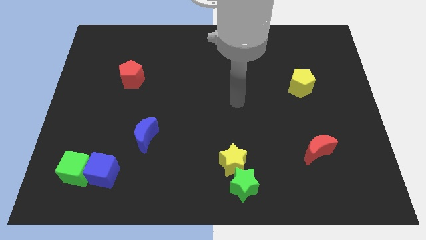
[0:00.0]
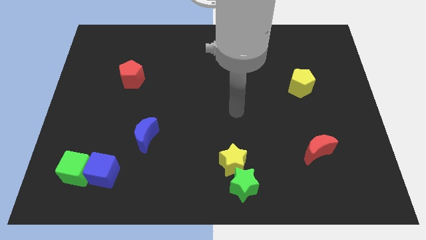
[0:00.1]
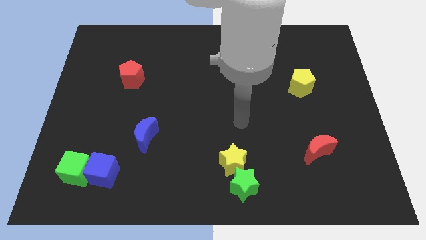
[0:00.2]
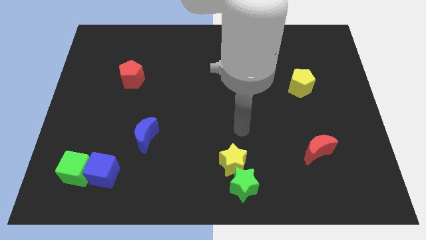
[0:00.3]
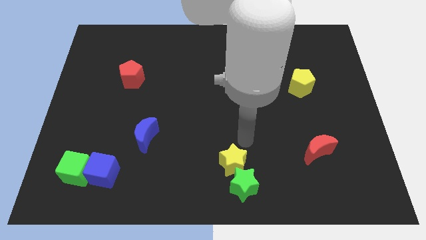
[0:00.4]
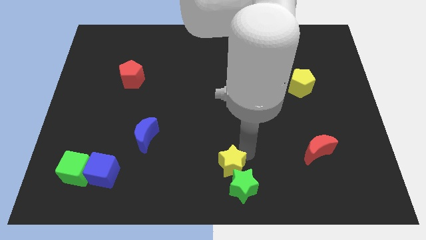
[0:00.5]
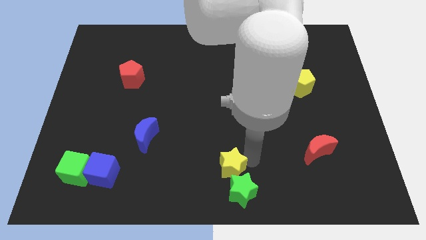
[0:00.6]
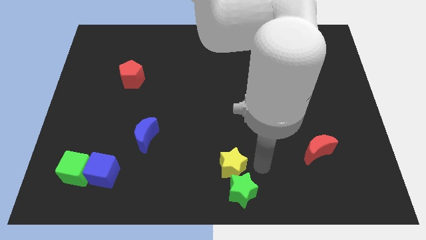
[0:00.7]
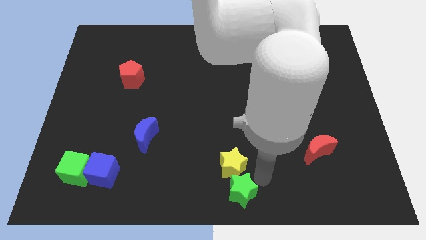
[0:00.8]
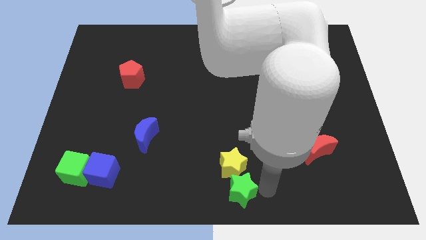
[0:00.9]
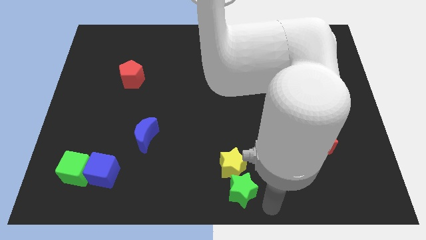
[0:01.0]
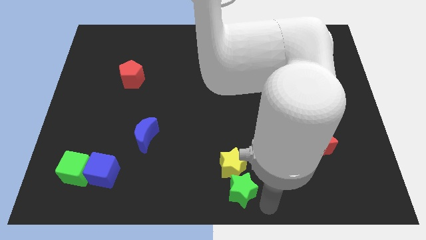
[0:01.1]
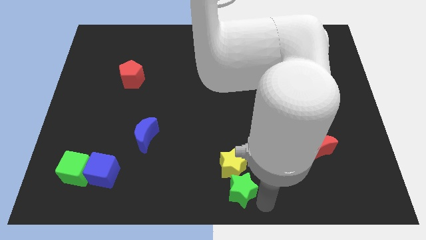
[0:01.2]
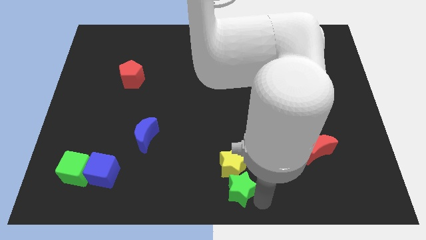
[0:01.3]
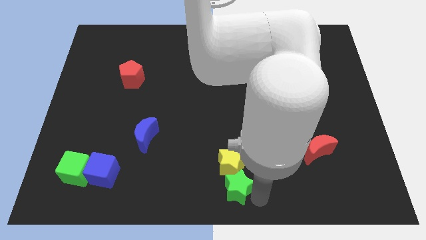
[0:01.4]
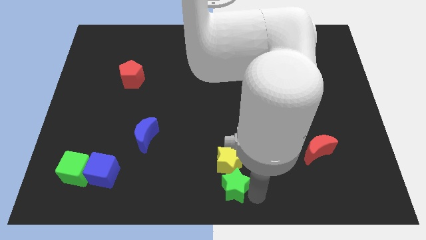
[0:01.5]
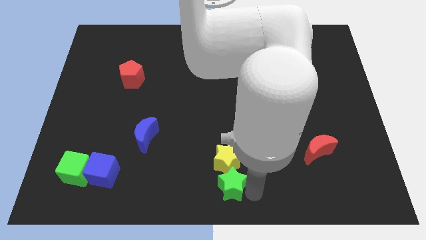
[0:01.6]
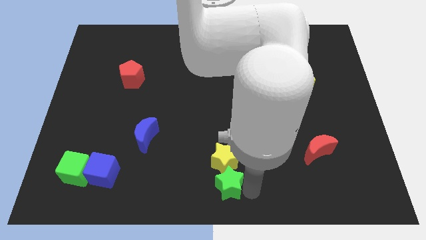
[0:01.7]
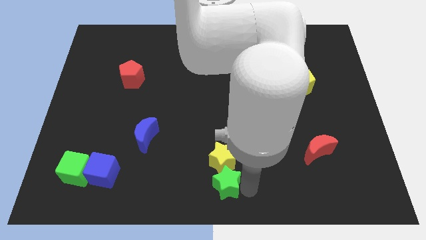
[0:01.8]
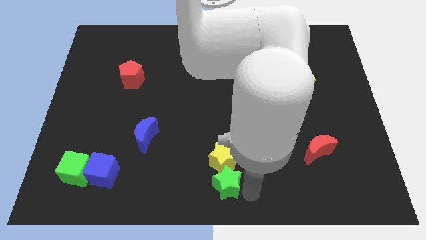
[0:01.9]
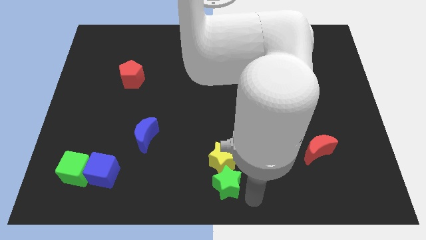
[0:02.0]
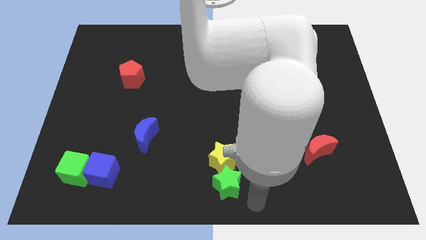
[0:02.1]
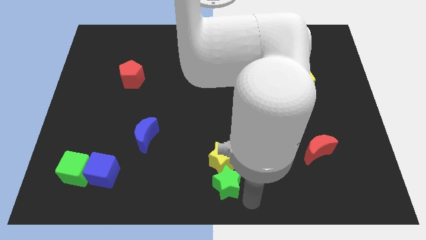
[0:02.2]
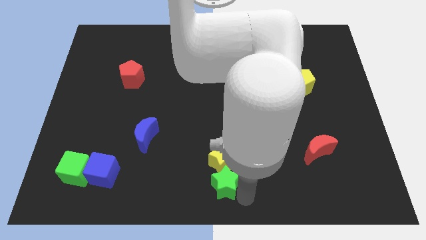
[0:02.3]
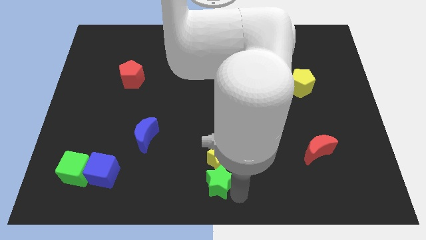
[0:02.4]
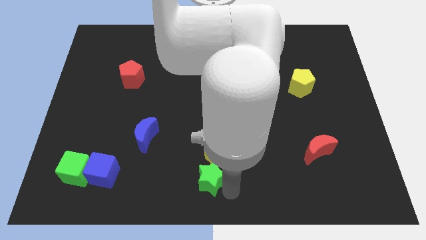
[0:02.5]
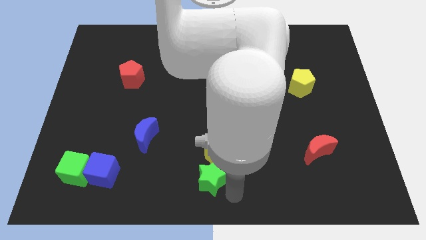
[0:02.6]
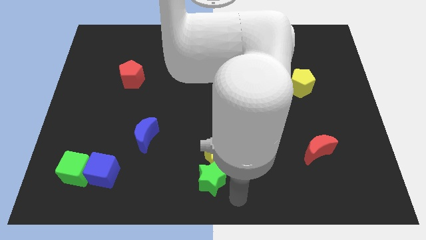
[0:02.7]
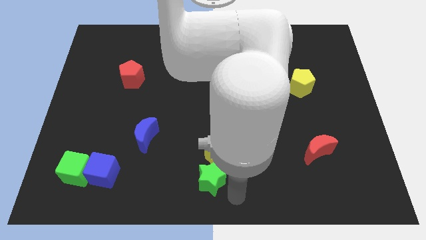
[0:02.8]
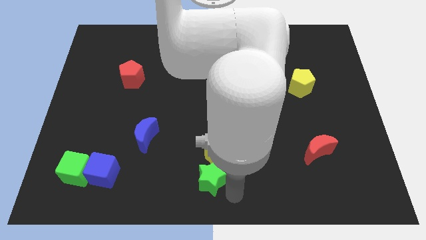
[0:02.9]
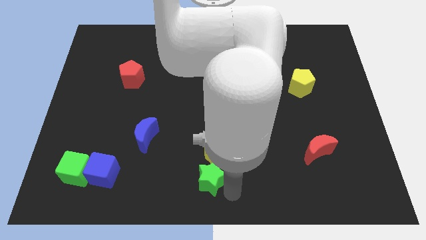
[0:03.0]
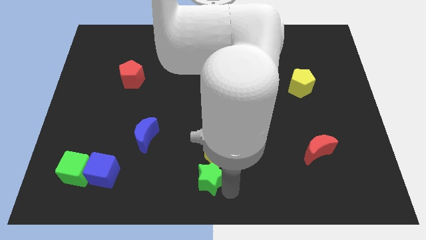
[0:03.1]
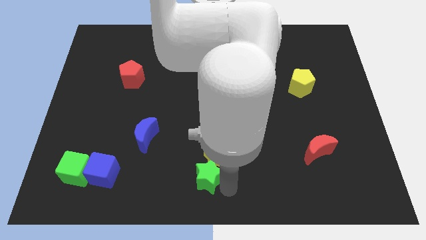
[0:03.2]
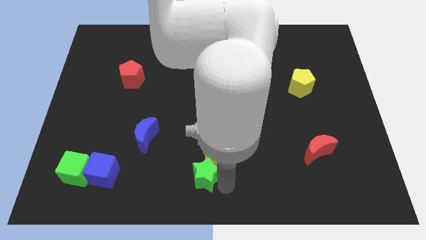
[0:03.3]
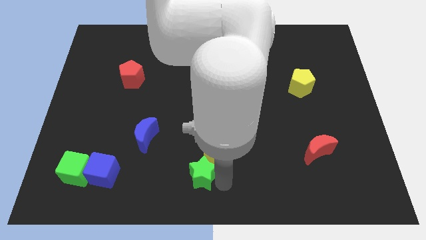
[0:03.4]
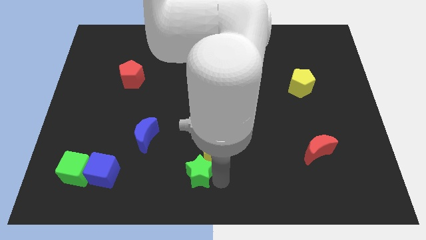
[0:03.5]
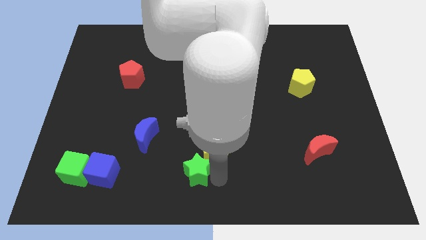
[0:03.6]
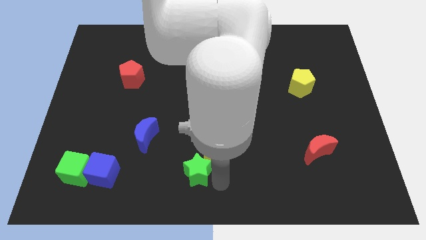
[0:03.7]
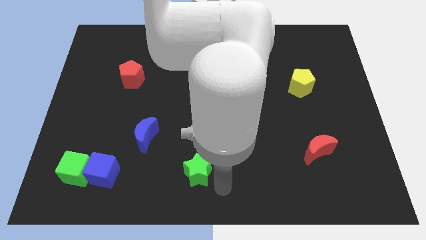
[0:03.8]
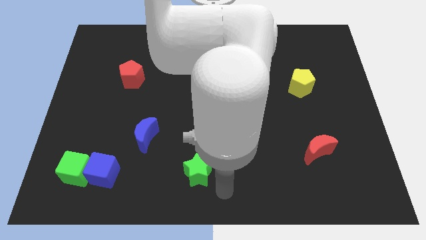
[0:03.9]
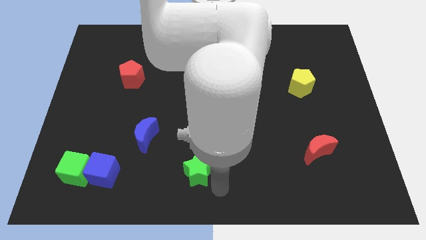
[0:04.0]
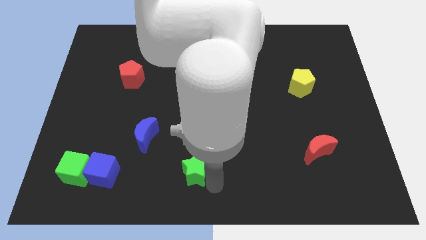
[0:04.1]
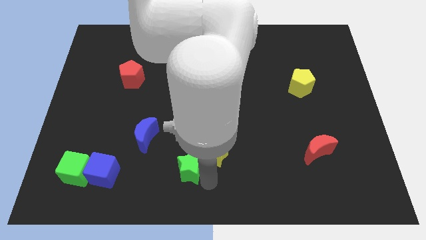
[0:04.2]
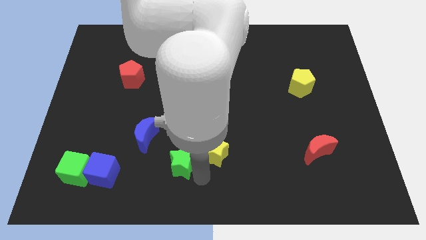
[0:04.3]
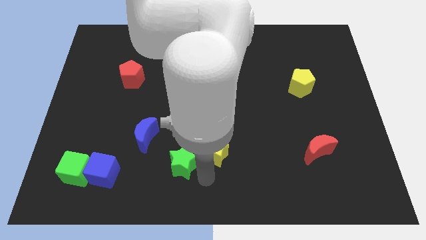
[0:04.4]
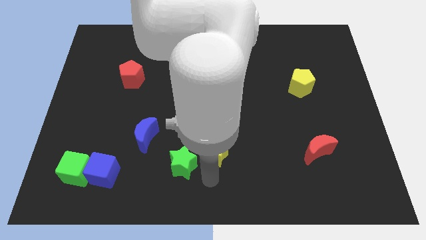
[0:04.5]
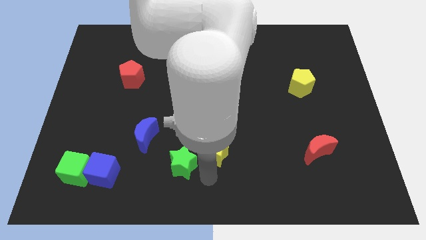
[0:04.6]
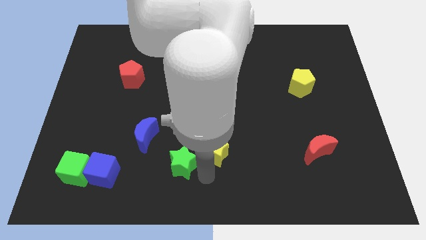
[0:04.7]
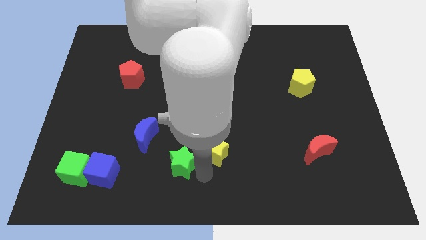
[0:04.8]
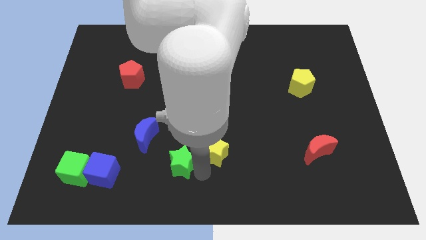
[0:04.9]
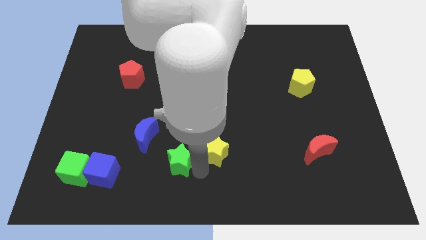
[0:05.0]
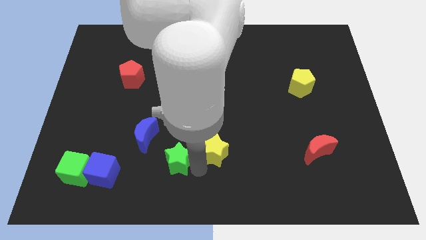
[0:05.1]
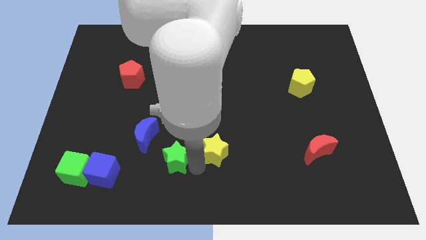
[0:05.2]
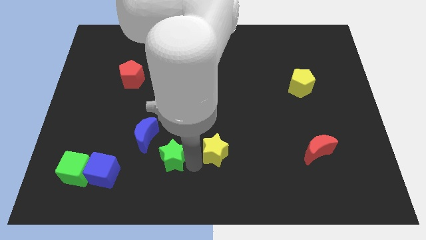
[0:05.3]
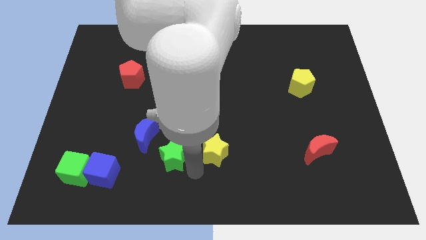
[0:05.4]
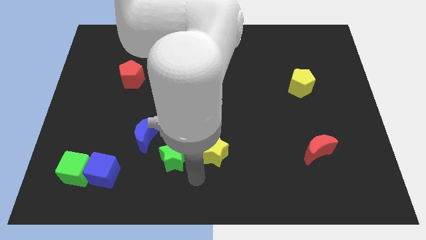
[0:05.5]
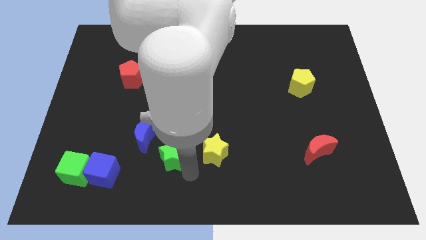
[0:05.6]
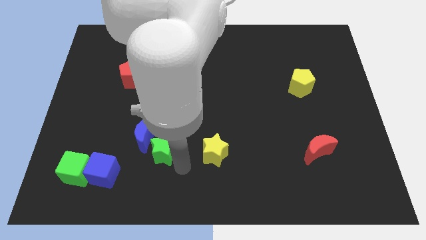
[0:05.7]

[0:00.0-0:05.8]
push the green star to the blue moon

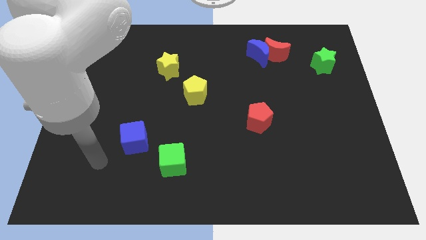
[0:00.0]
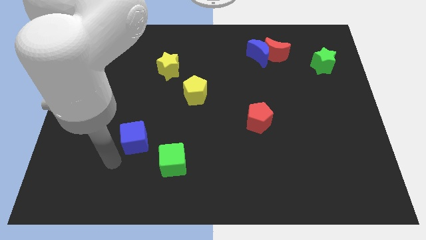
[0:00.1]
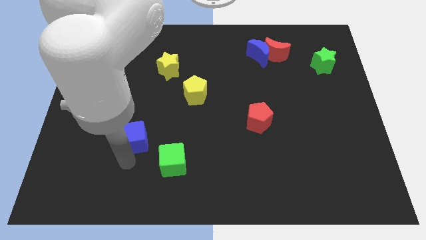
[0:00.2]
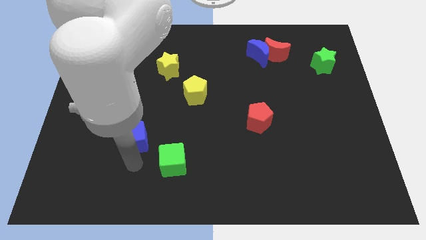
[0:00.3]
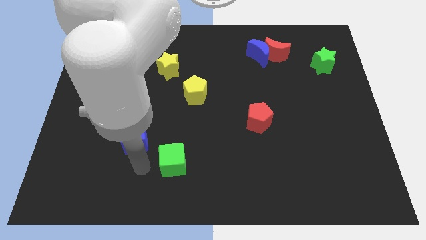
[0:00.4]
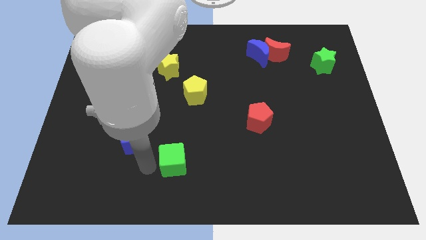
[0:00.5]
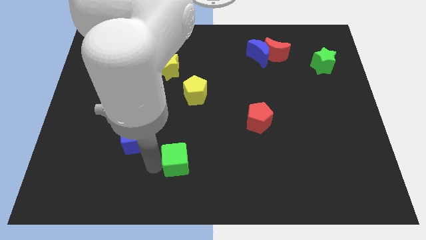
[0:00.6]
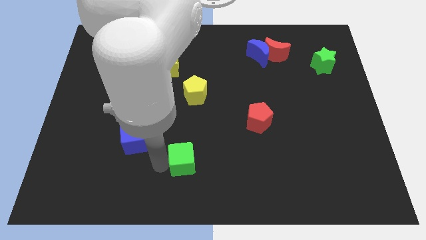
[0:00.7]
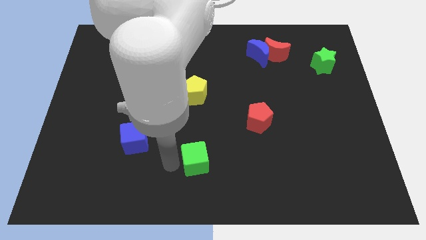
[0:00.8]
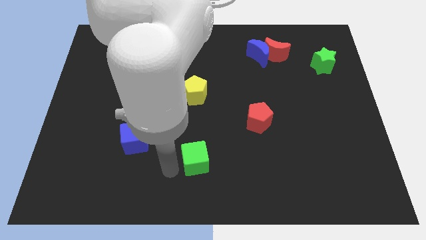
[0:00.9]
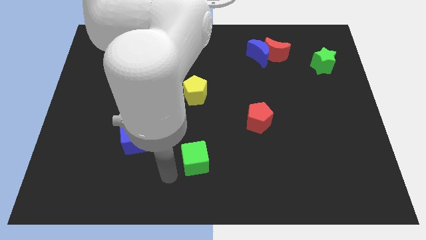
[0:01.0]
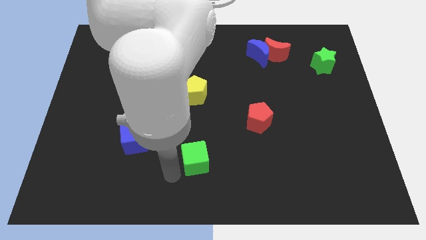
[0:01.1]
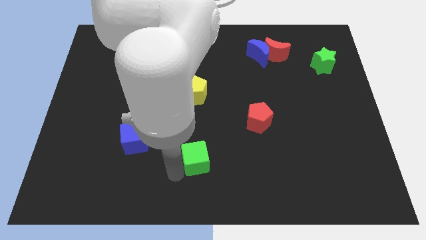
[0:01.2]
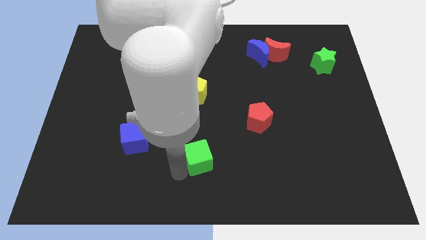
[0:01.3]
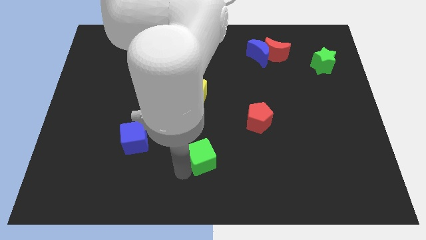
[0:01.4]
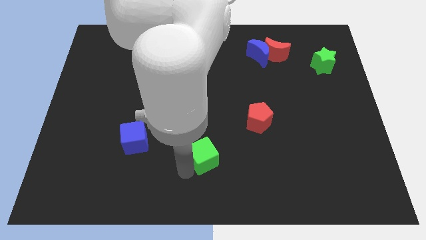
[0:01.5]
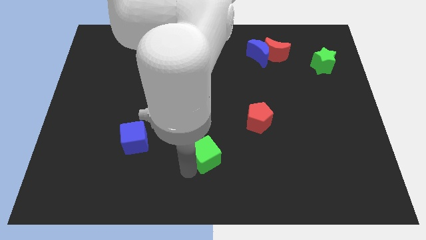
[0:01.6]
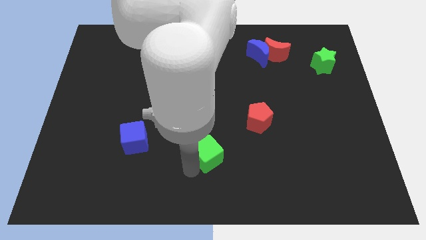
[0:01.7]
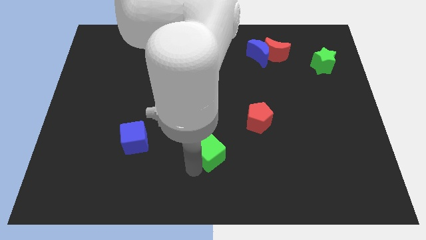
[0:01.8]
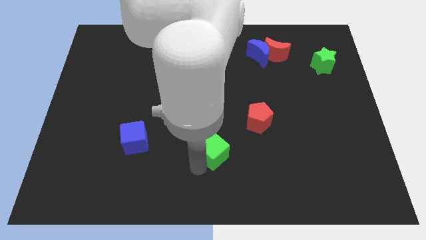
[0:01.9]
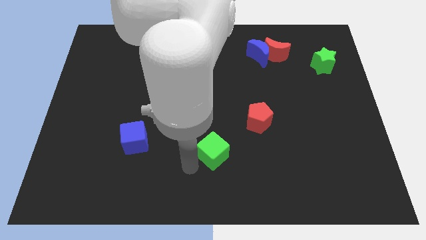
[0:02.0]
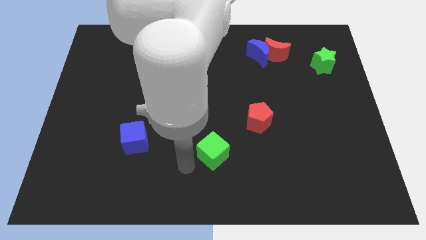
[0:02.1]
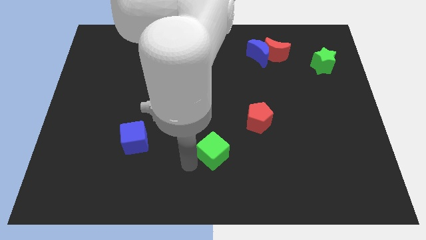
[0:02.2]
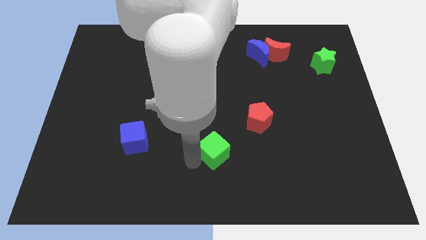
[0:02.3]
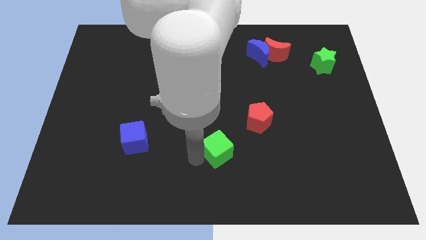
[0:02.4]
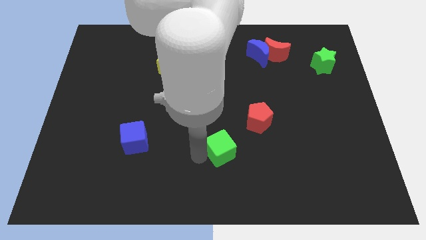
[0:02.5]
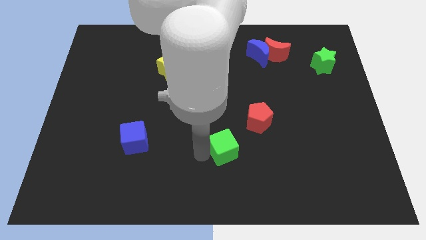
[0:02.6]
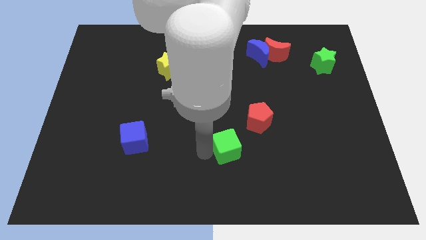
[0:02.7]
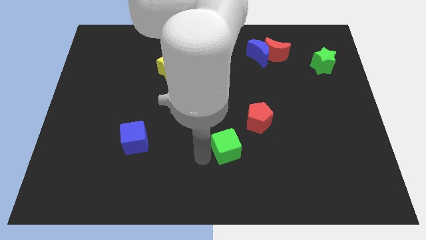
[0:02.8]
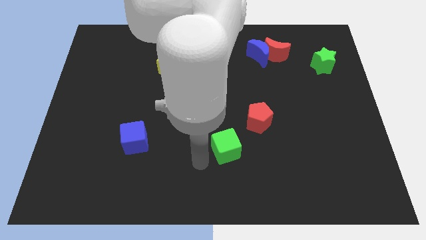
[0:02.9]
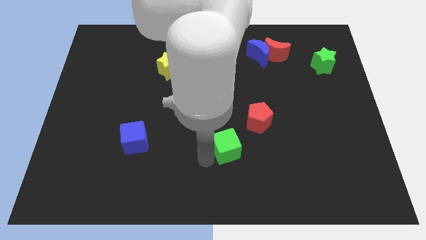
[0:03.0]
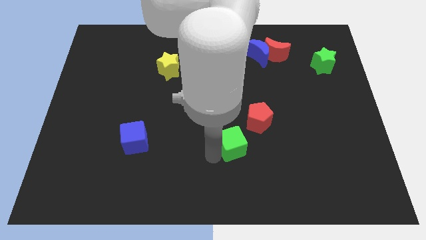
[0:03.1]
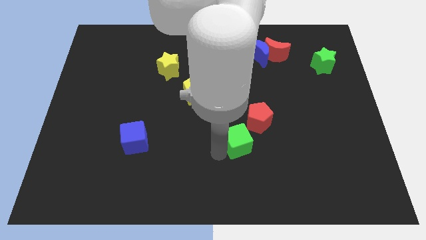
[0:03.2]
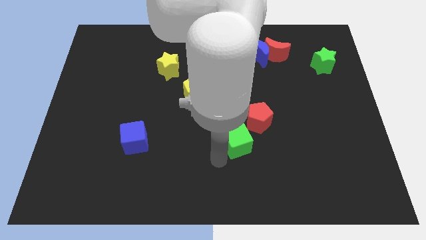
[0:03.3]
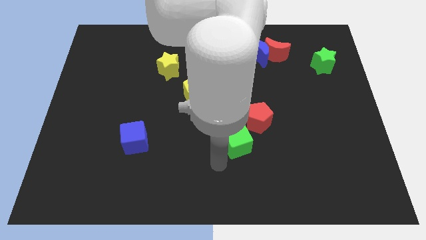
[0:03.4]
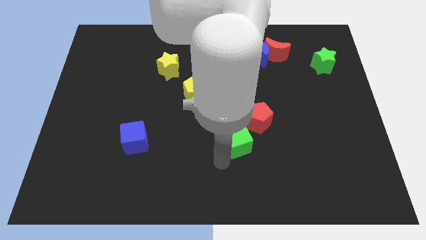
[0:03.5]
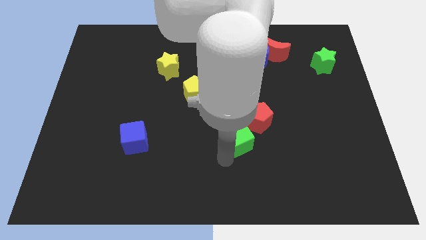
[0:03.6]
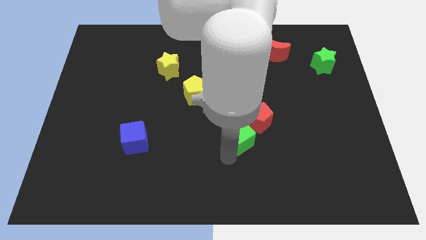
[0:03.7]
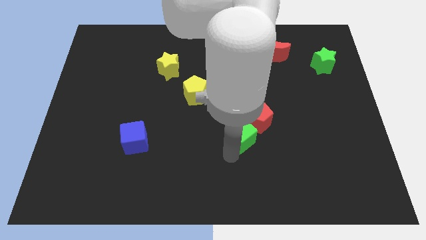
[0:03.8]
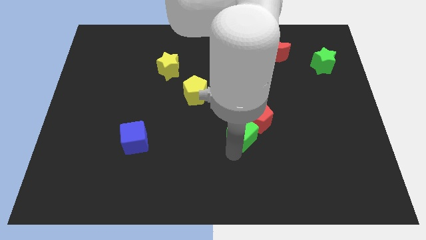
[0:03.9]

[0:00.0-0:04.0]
put the green cube towards the red pentagon
